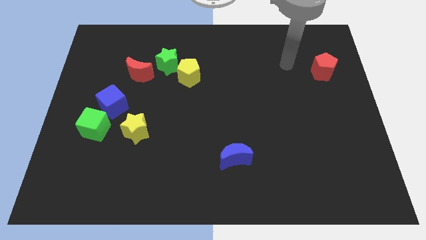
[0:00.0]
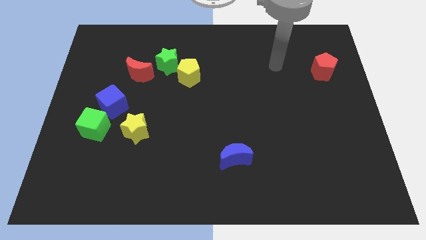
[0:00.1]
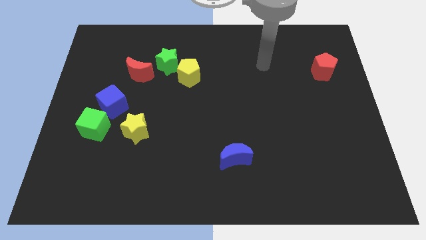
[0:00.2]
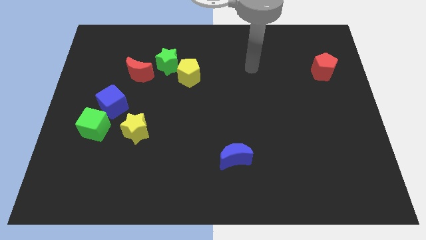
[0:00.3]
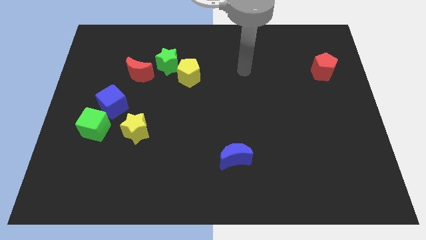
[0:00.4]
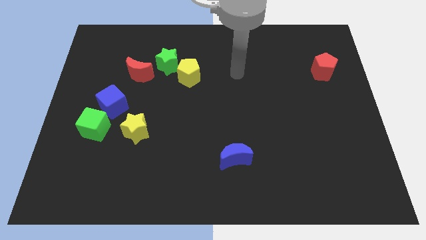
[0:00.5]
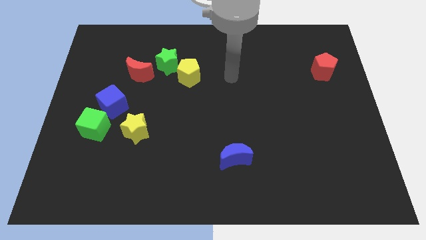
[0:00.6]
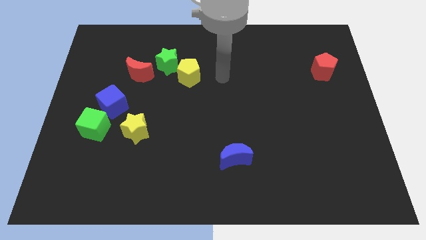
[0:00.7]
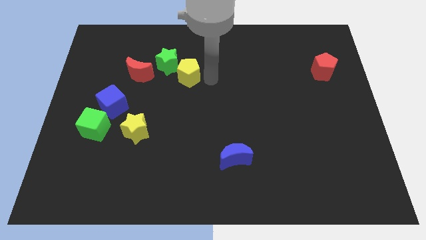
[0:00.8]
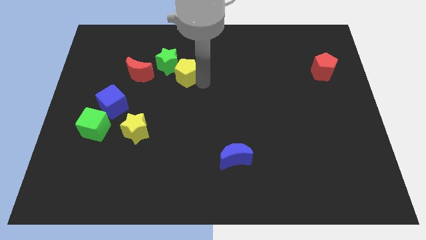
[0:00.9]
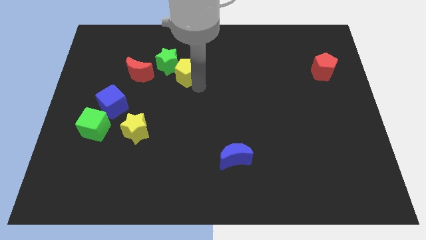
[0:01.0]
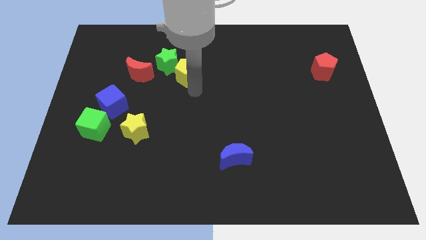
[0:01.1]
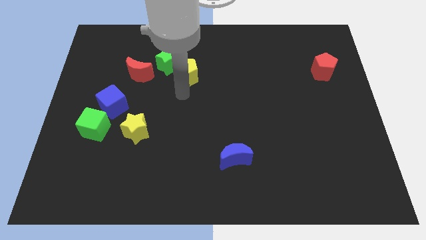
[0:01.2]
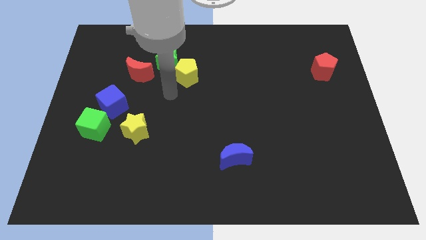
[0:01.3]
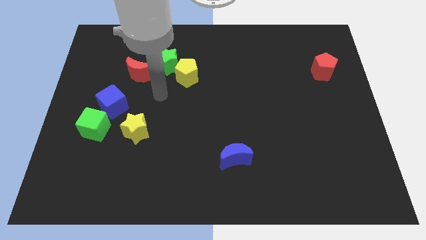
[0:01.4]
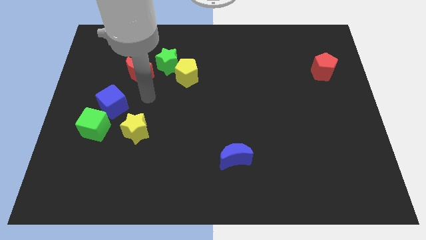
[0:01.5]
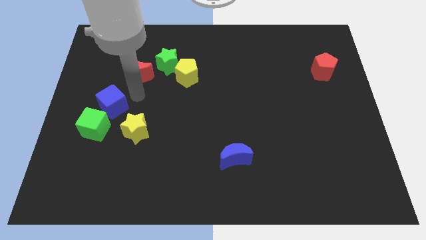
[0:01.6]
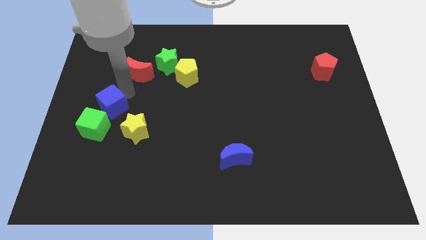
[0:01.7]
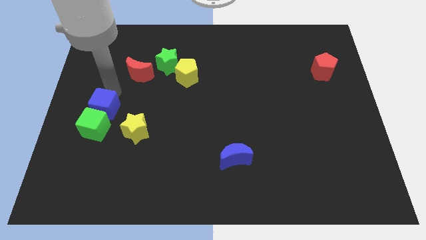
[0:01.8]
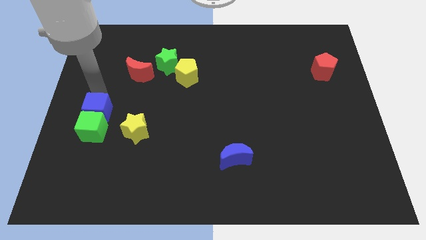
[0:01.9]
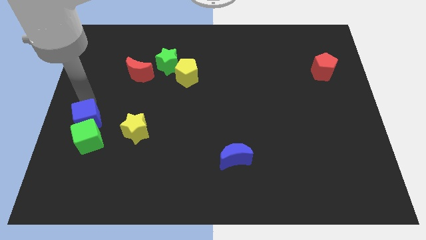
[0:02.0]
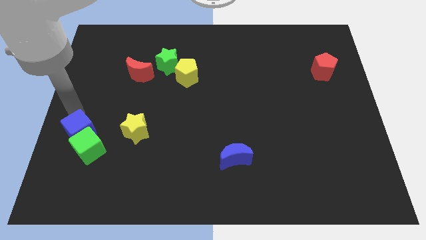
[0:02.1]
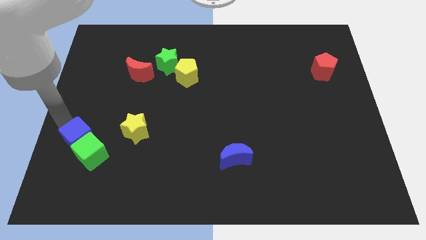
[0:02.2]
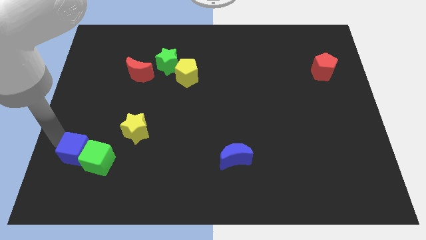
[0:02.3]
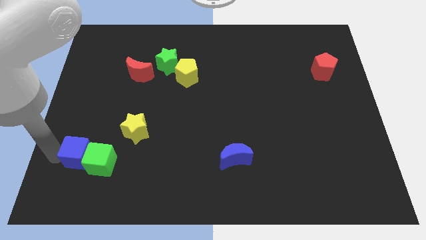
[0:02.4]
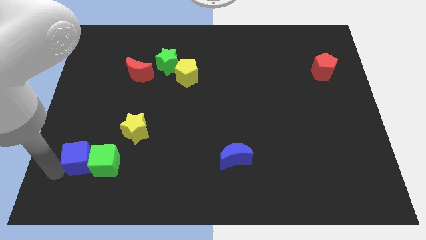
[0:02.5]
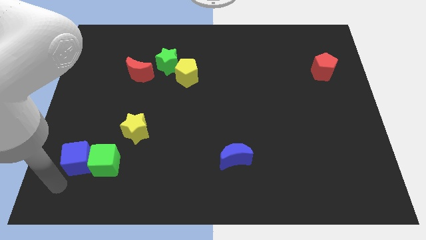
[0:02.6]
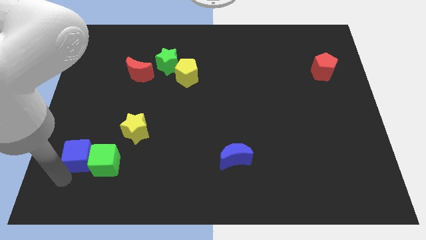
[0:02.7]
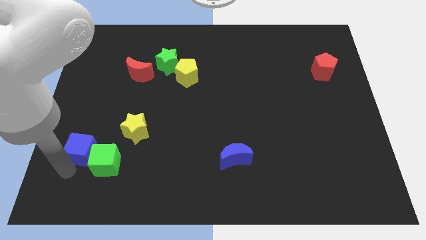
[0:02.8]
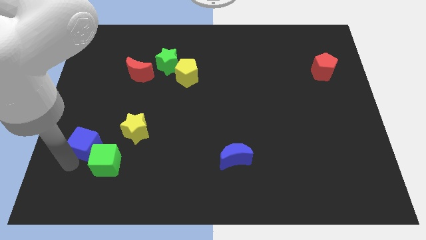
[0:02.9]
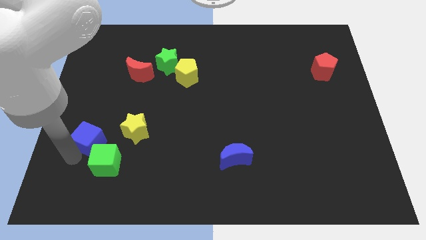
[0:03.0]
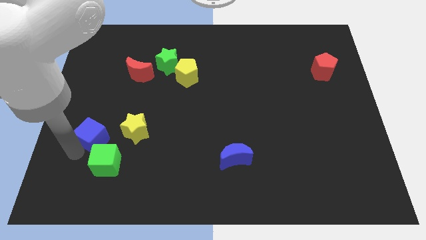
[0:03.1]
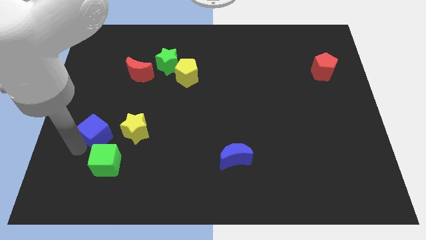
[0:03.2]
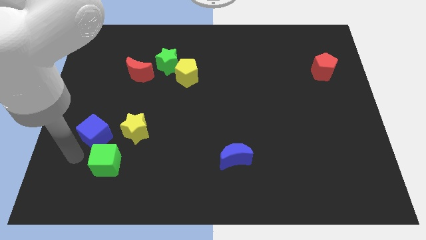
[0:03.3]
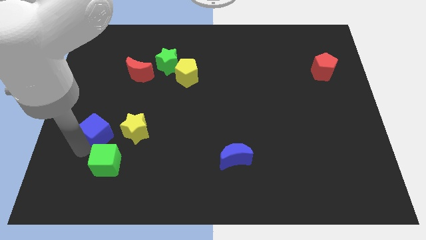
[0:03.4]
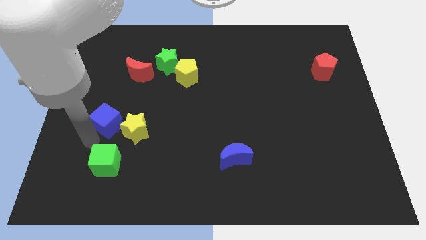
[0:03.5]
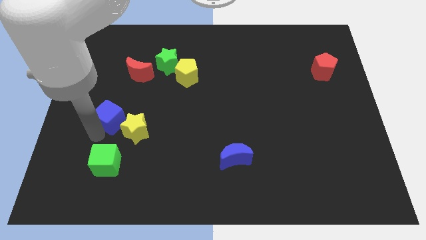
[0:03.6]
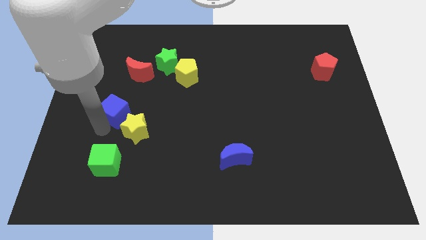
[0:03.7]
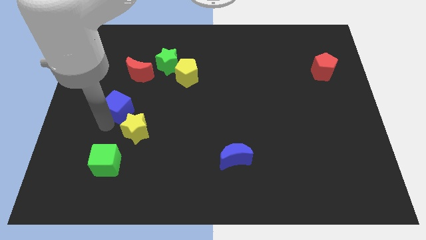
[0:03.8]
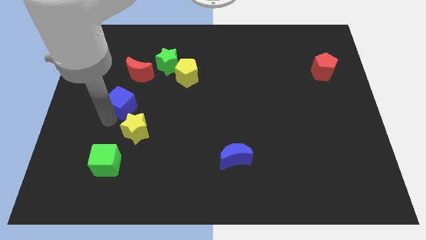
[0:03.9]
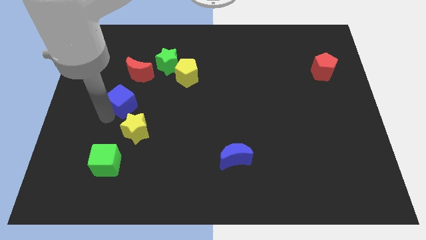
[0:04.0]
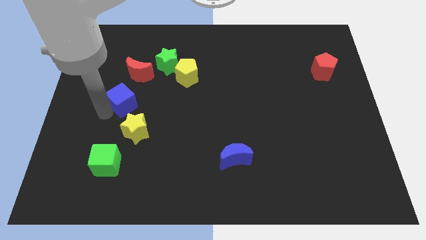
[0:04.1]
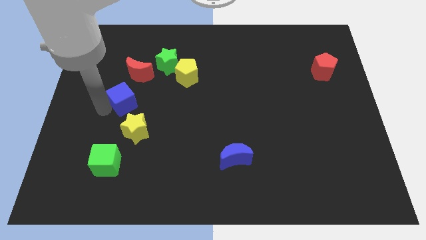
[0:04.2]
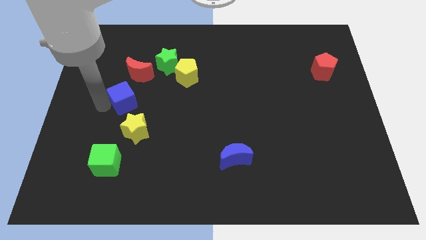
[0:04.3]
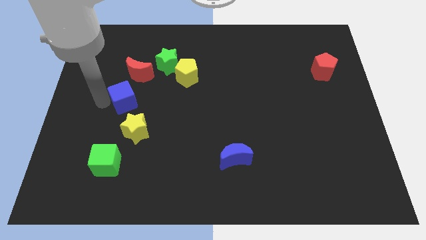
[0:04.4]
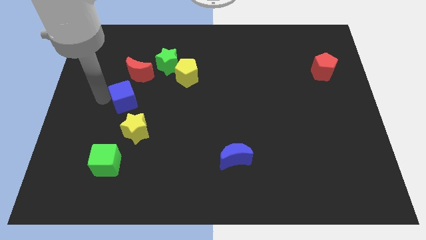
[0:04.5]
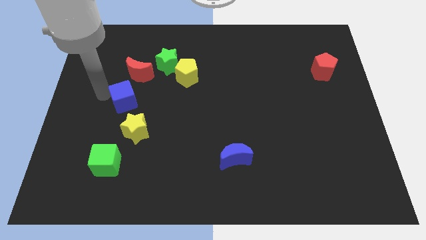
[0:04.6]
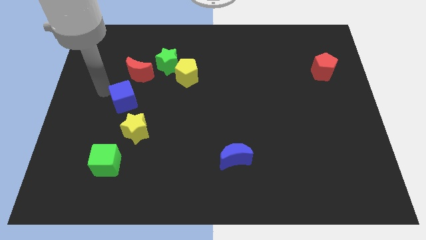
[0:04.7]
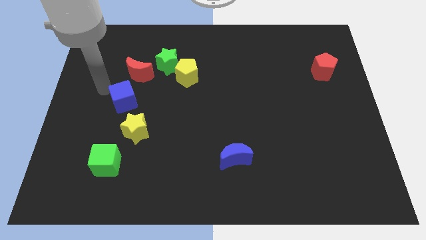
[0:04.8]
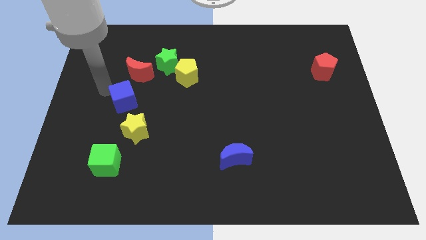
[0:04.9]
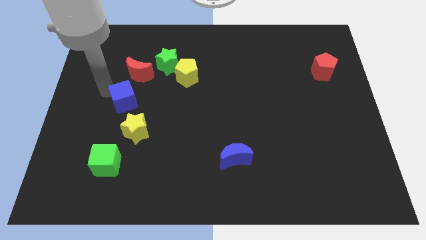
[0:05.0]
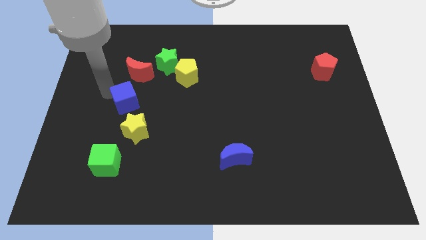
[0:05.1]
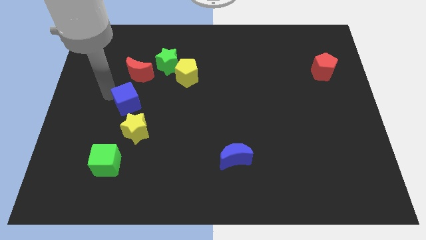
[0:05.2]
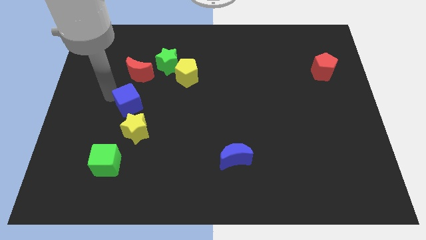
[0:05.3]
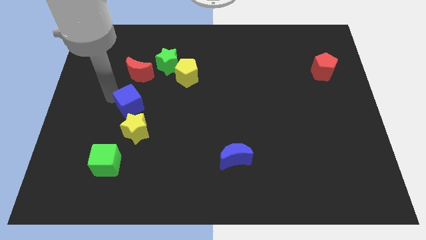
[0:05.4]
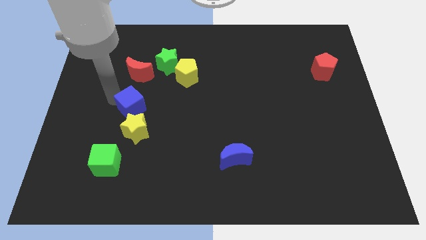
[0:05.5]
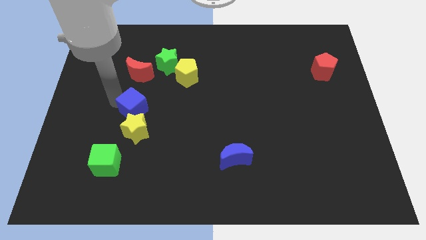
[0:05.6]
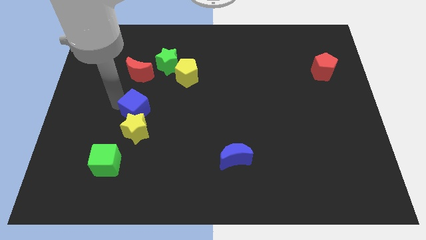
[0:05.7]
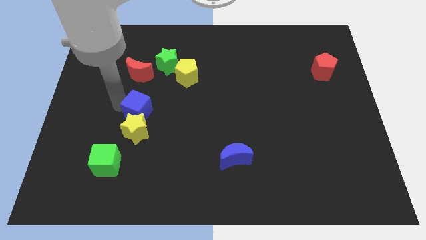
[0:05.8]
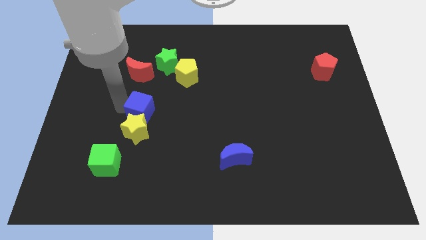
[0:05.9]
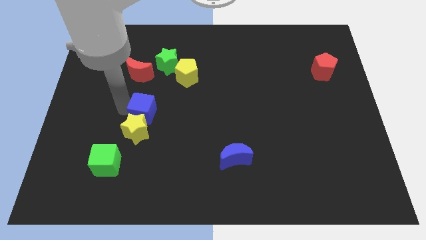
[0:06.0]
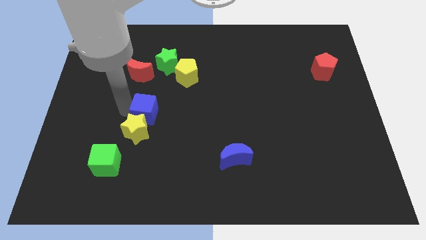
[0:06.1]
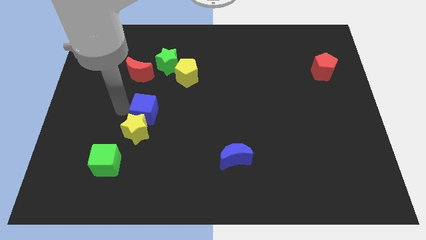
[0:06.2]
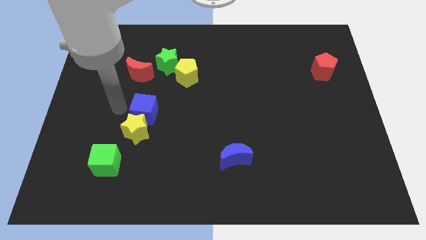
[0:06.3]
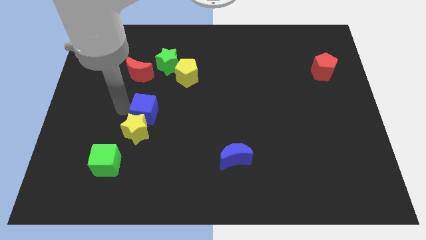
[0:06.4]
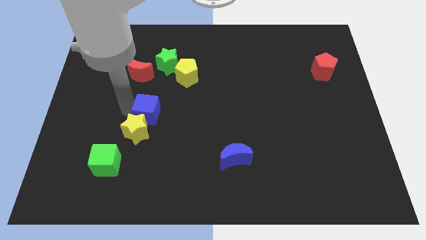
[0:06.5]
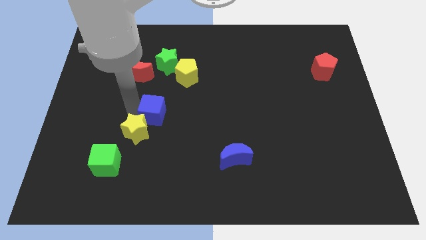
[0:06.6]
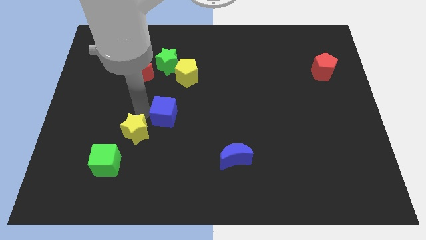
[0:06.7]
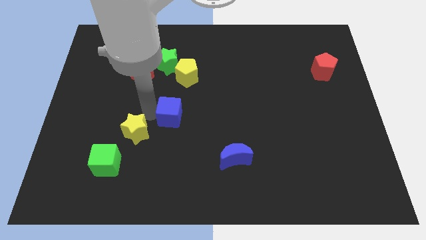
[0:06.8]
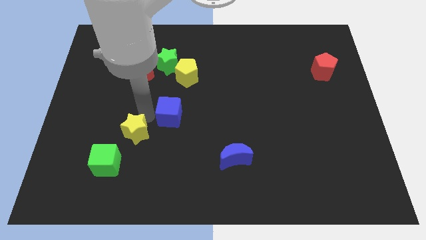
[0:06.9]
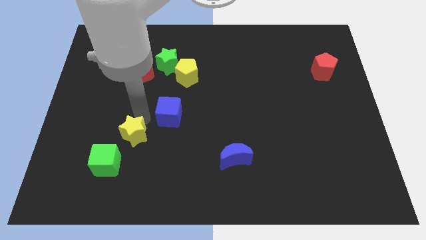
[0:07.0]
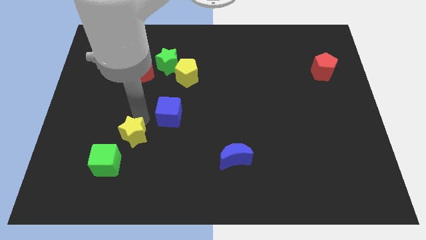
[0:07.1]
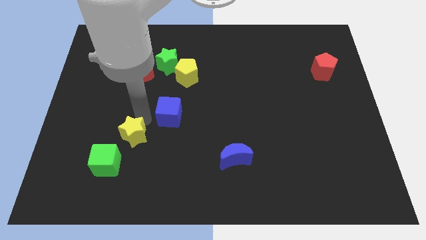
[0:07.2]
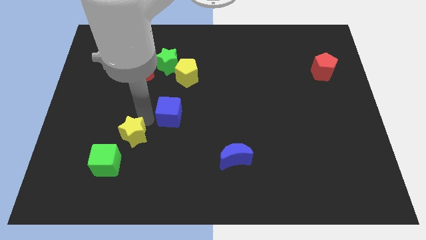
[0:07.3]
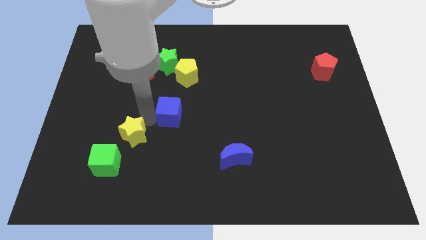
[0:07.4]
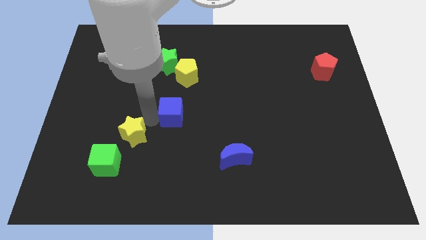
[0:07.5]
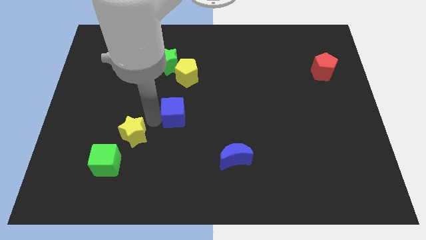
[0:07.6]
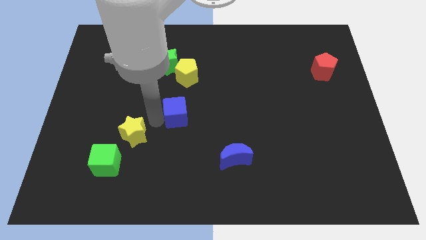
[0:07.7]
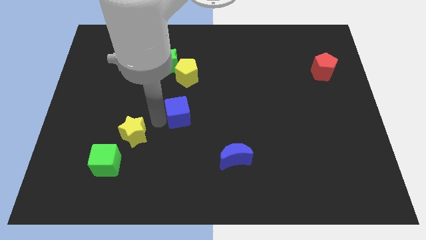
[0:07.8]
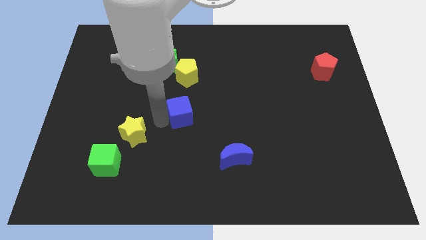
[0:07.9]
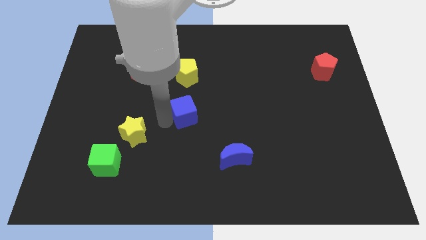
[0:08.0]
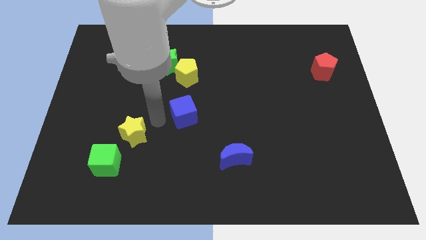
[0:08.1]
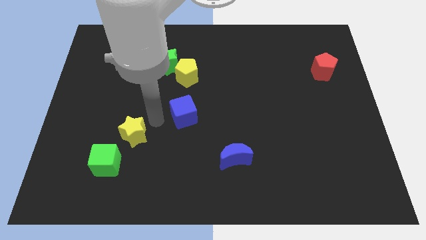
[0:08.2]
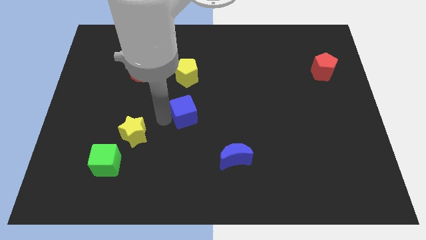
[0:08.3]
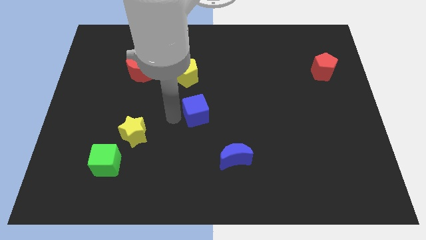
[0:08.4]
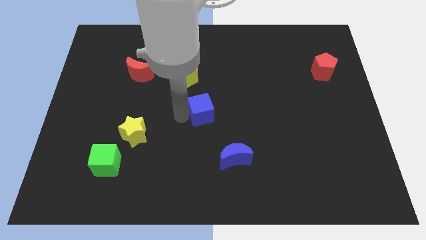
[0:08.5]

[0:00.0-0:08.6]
slide the blue cube to the right
